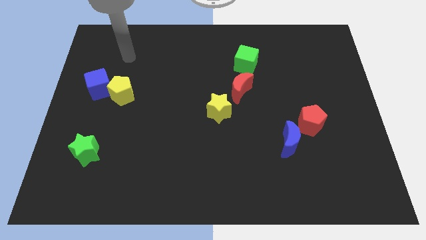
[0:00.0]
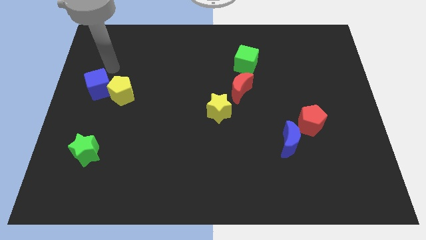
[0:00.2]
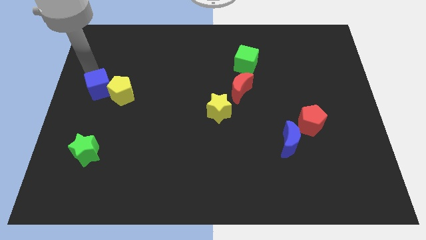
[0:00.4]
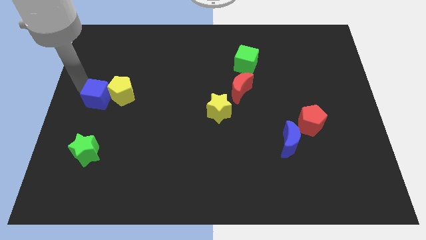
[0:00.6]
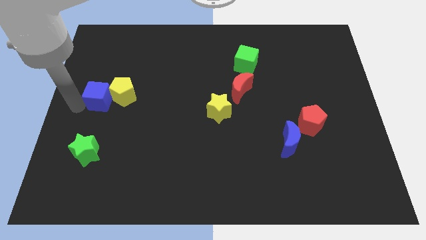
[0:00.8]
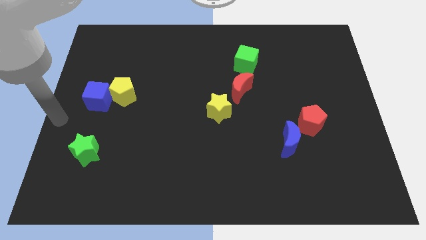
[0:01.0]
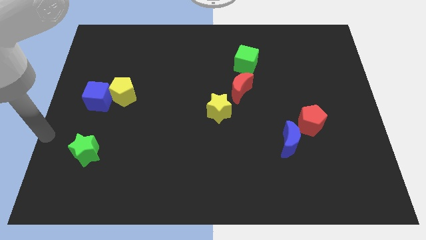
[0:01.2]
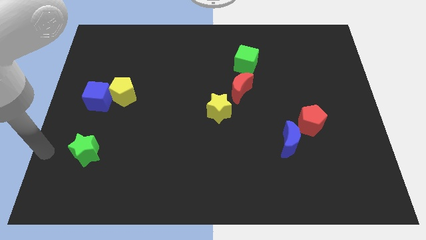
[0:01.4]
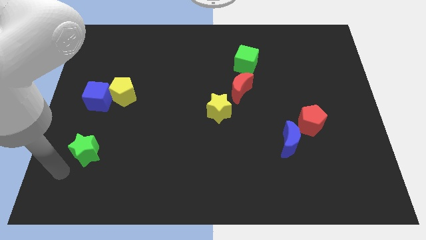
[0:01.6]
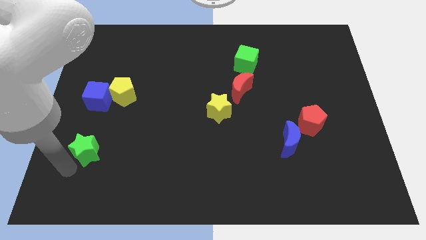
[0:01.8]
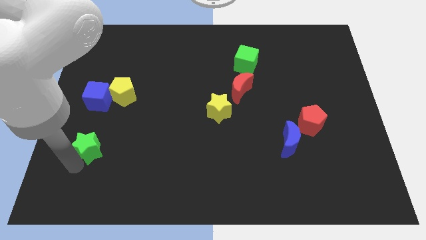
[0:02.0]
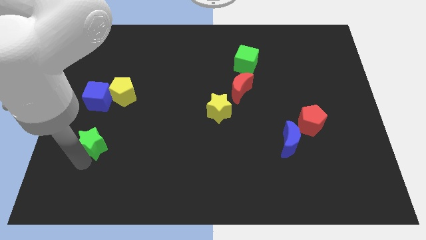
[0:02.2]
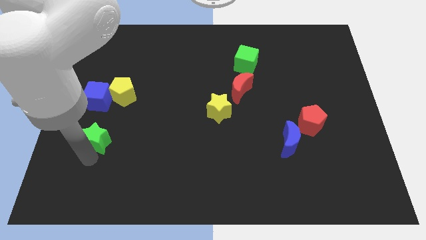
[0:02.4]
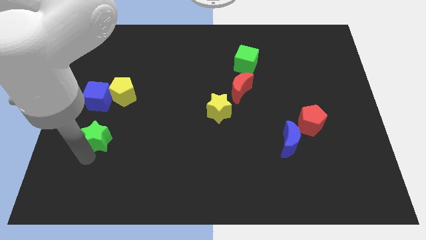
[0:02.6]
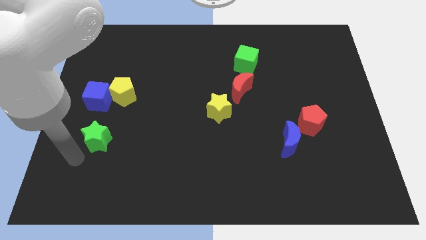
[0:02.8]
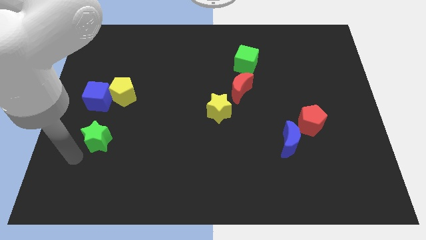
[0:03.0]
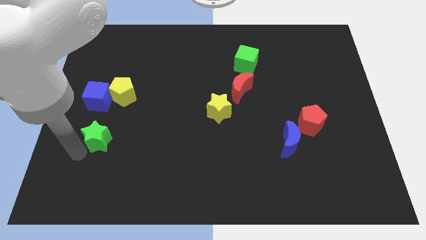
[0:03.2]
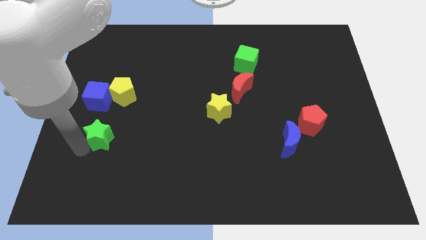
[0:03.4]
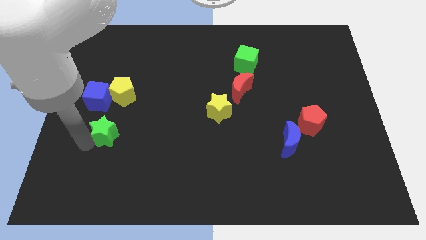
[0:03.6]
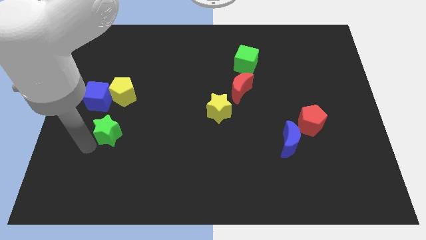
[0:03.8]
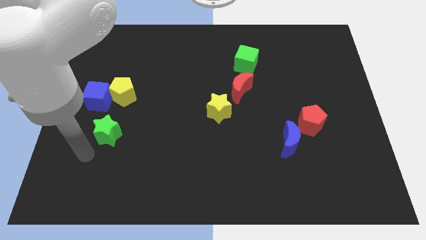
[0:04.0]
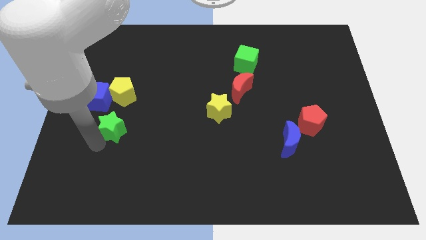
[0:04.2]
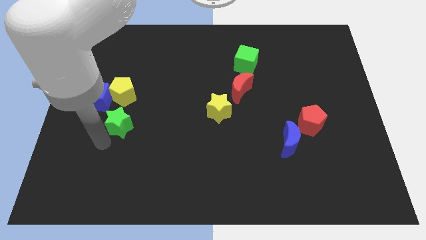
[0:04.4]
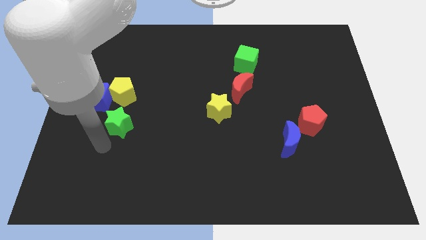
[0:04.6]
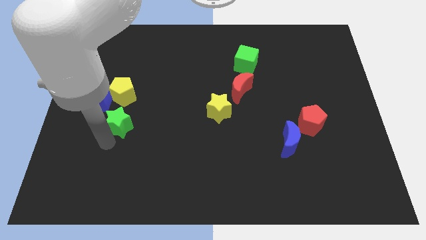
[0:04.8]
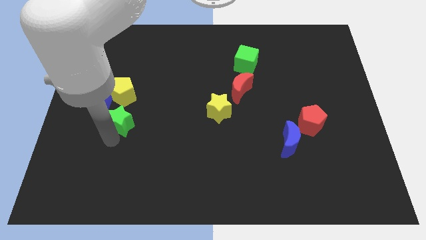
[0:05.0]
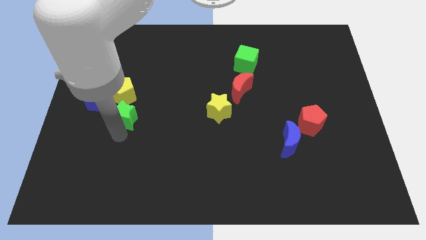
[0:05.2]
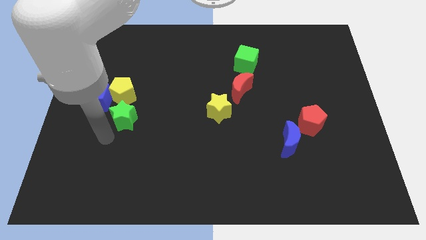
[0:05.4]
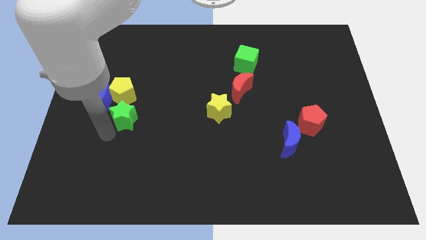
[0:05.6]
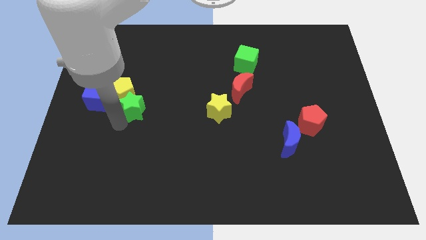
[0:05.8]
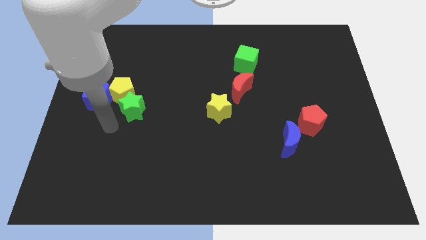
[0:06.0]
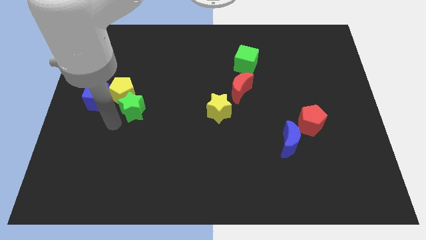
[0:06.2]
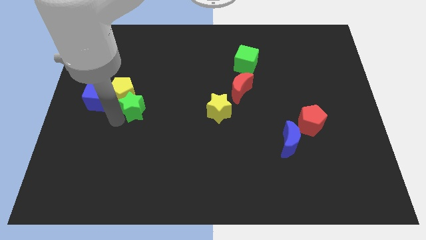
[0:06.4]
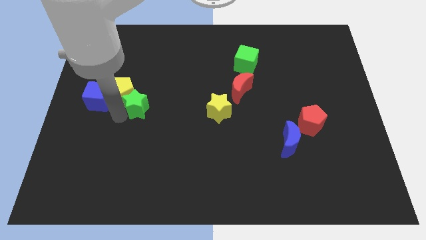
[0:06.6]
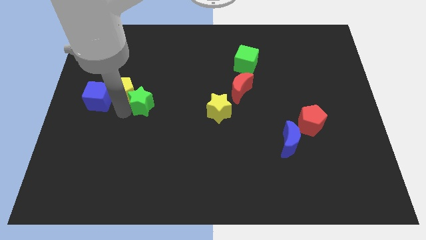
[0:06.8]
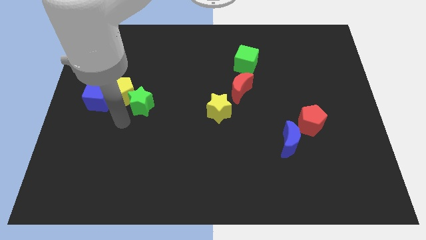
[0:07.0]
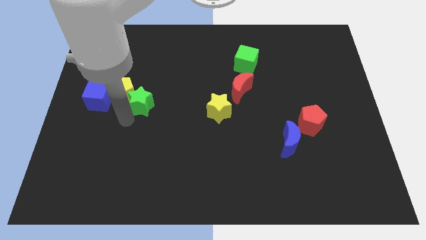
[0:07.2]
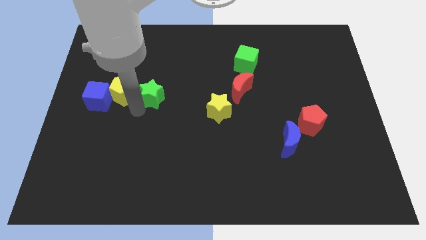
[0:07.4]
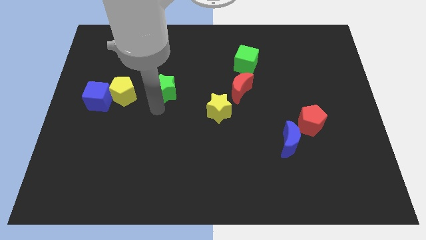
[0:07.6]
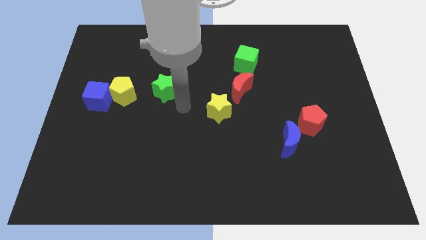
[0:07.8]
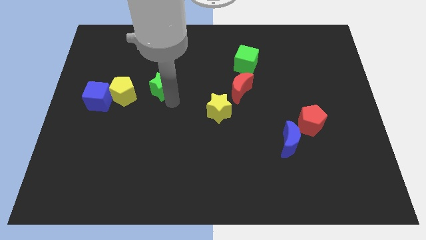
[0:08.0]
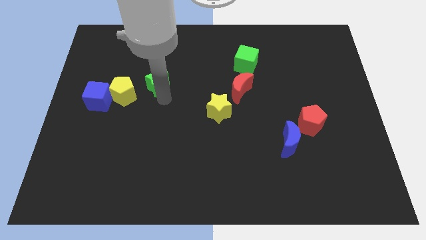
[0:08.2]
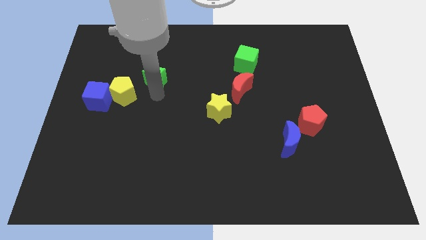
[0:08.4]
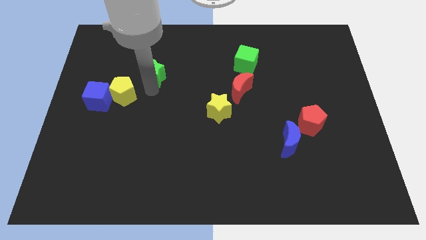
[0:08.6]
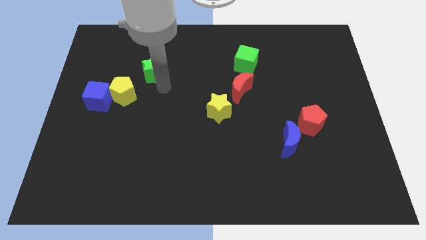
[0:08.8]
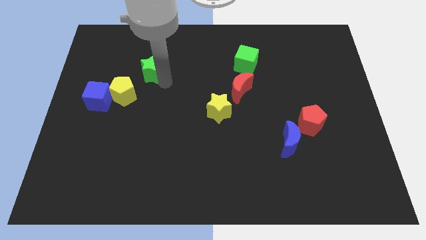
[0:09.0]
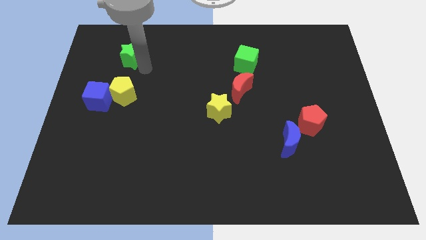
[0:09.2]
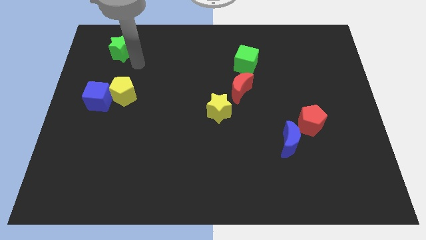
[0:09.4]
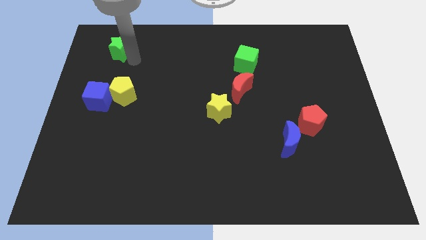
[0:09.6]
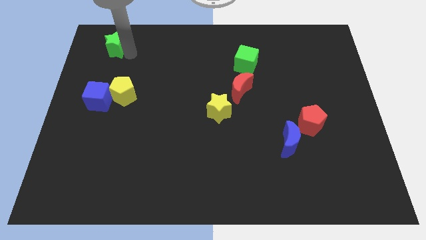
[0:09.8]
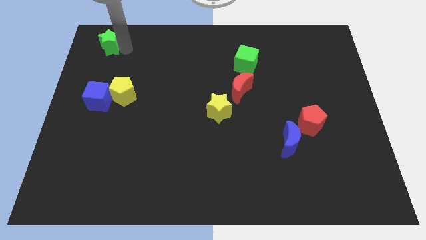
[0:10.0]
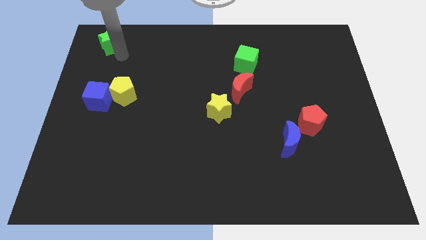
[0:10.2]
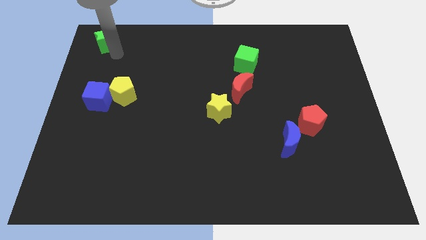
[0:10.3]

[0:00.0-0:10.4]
push the green star to the top left of the board

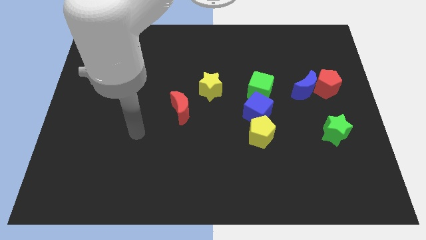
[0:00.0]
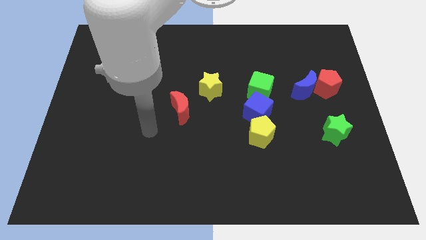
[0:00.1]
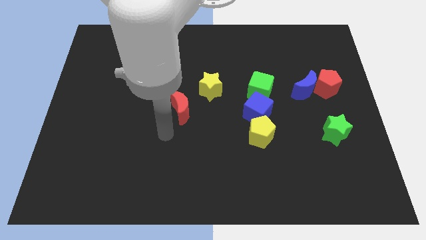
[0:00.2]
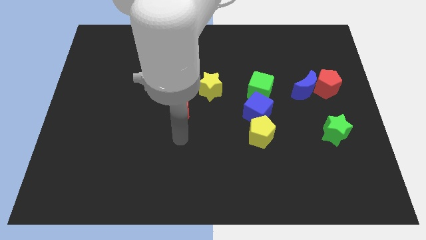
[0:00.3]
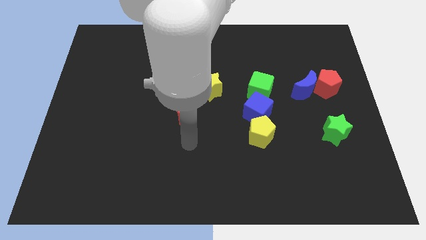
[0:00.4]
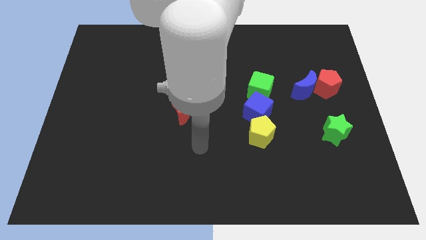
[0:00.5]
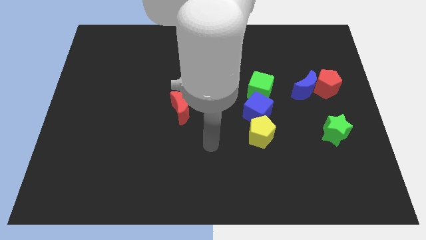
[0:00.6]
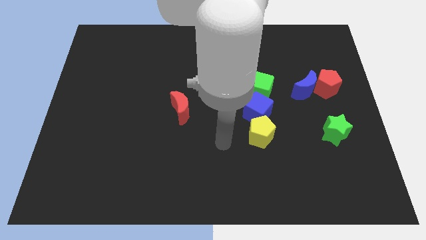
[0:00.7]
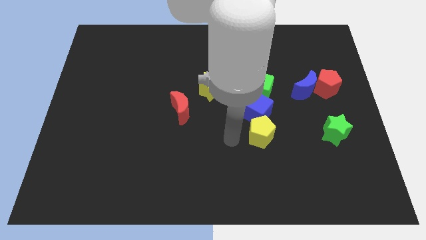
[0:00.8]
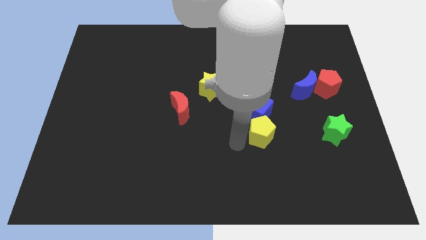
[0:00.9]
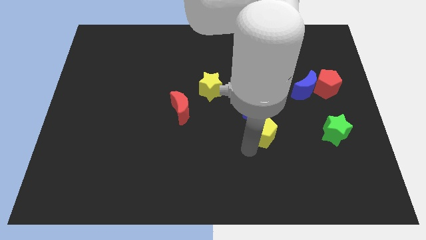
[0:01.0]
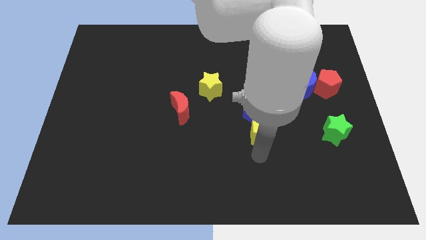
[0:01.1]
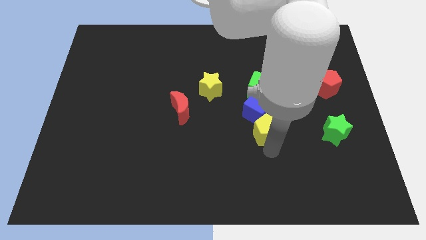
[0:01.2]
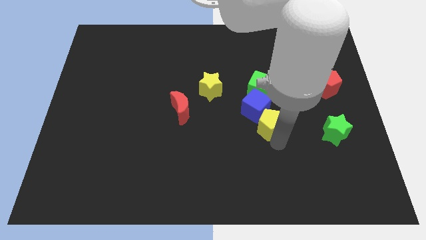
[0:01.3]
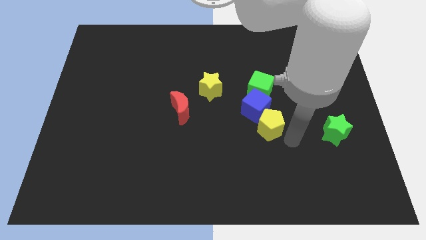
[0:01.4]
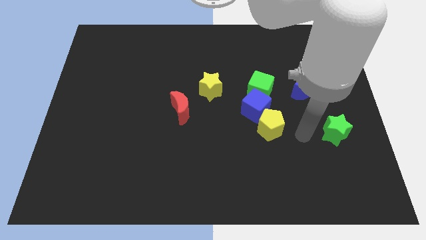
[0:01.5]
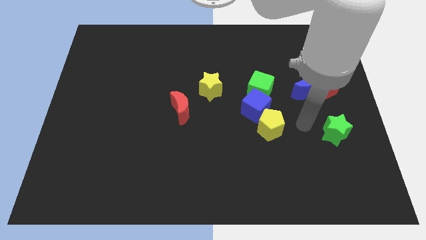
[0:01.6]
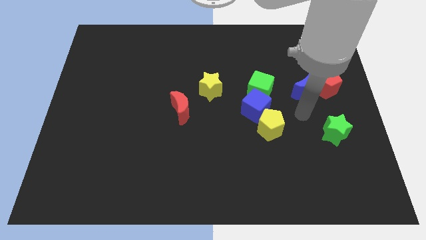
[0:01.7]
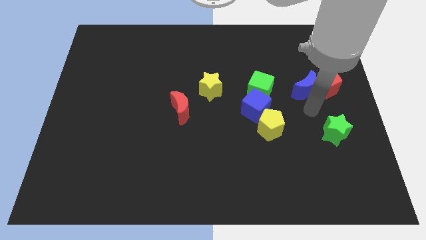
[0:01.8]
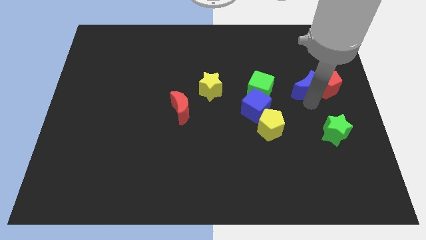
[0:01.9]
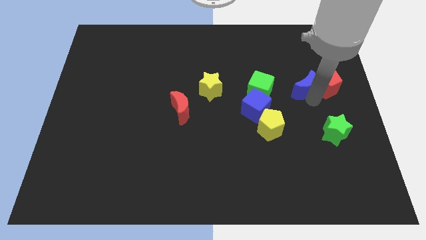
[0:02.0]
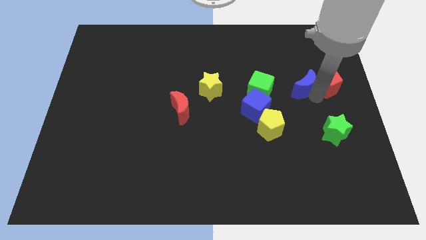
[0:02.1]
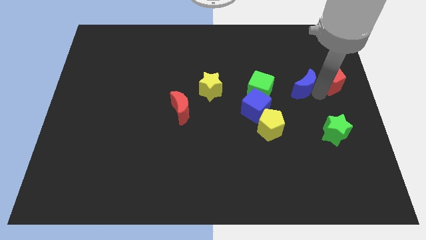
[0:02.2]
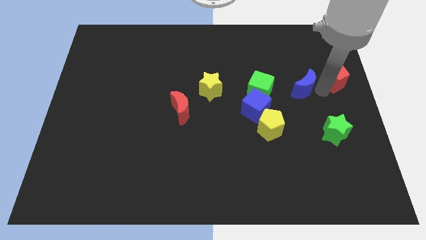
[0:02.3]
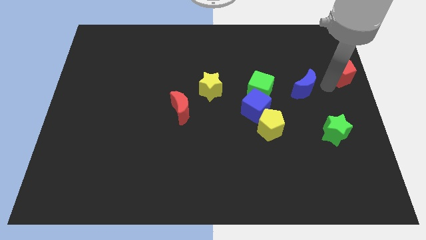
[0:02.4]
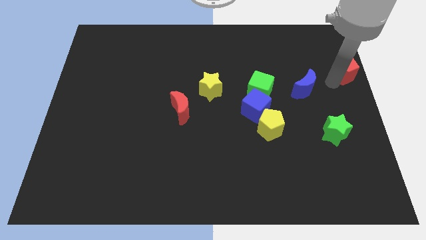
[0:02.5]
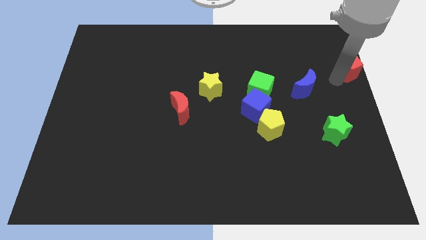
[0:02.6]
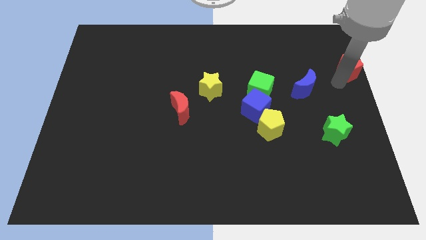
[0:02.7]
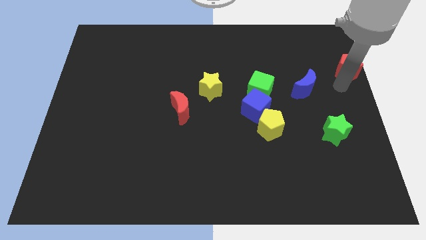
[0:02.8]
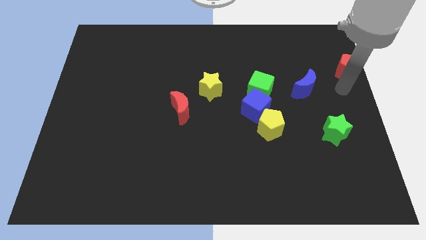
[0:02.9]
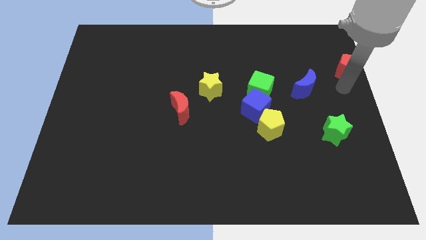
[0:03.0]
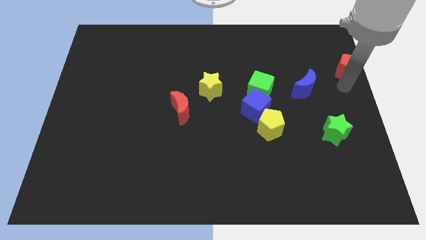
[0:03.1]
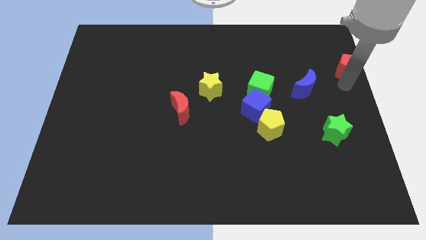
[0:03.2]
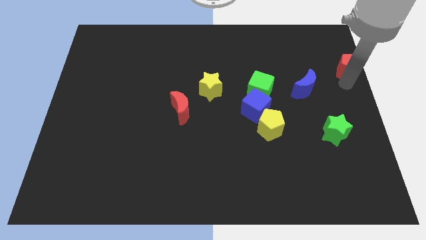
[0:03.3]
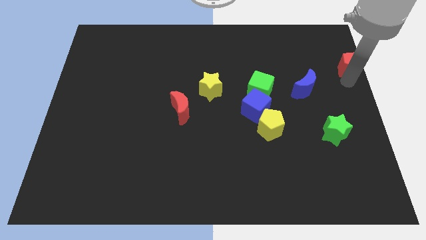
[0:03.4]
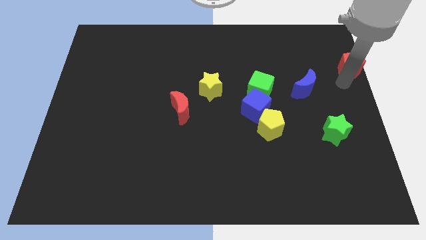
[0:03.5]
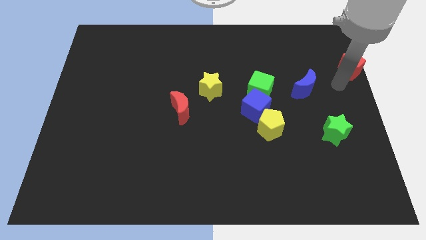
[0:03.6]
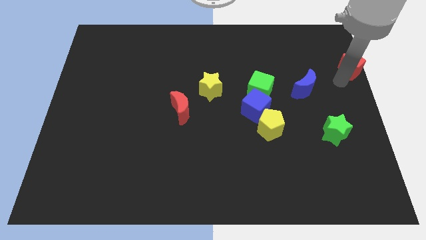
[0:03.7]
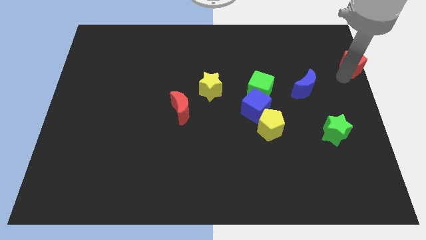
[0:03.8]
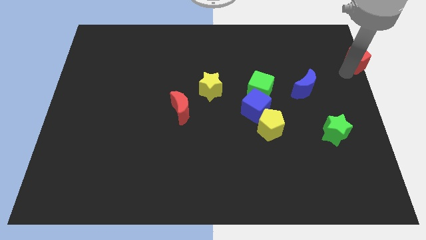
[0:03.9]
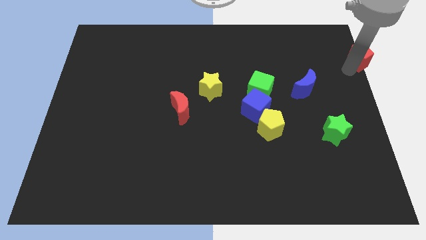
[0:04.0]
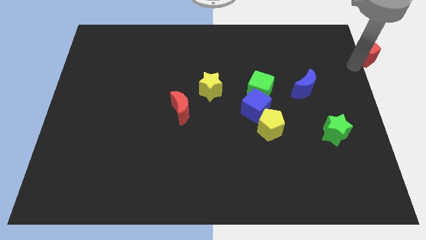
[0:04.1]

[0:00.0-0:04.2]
put the red pentagon to the top right of the board
